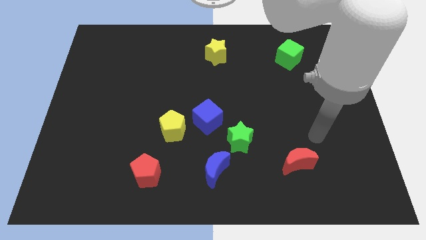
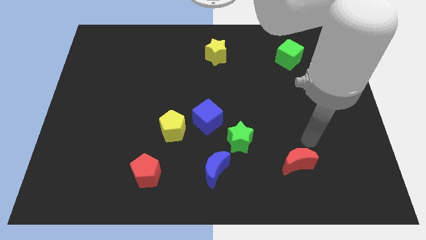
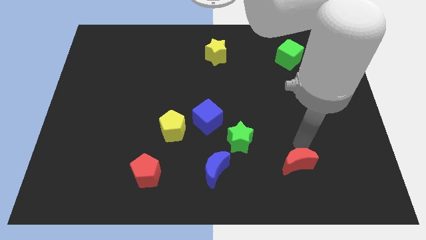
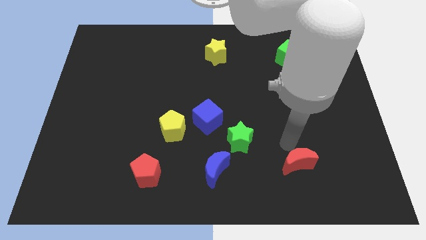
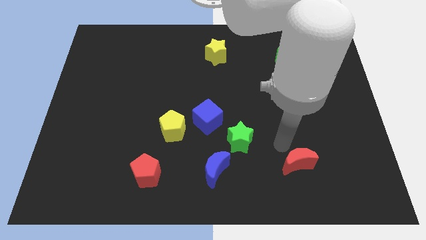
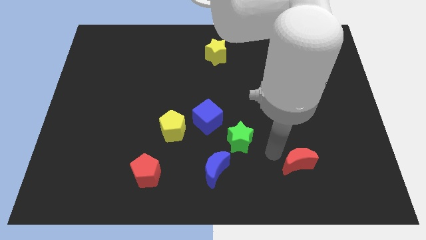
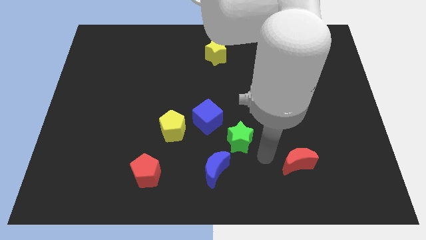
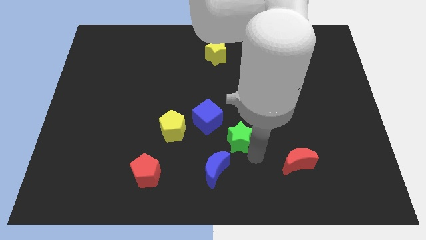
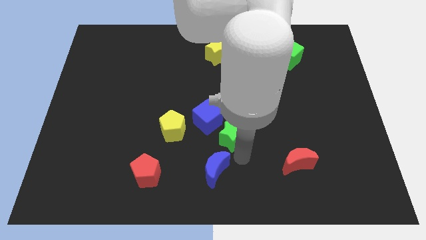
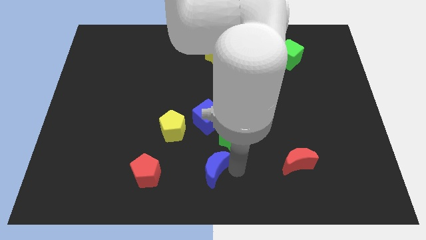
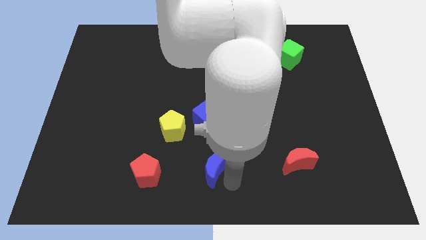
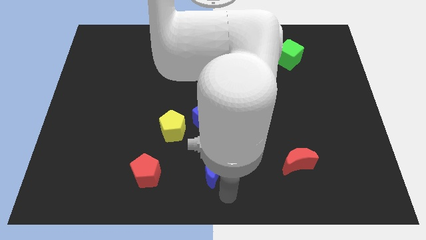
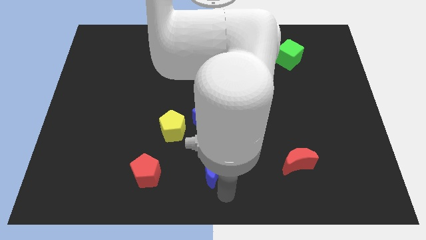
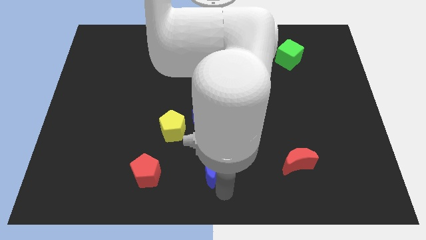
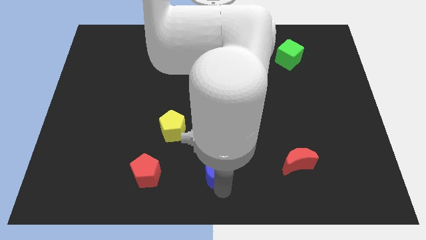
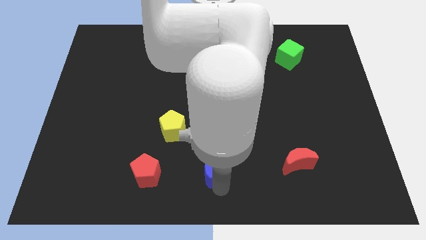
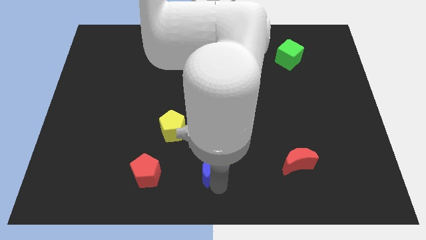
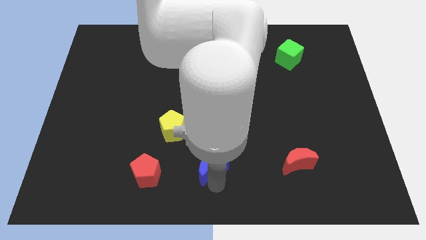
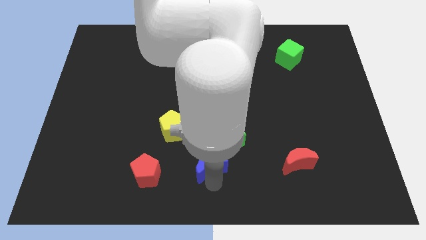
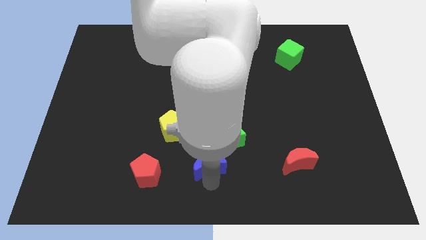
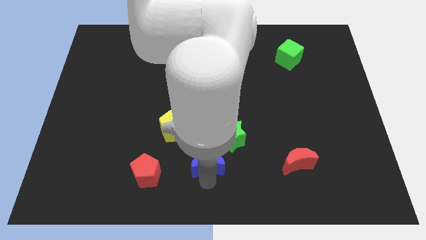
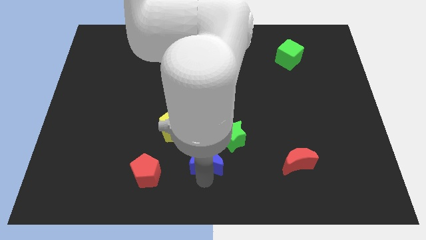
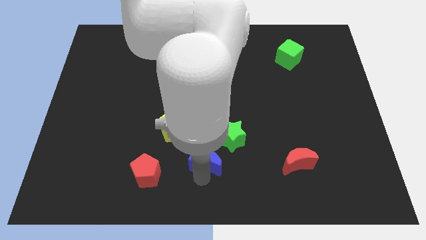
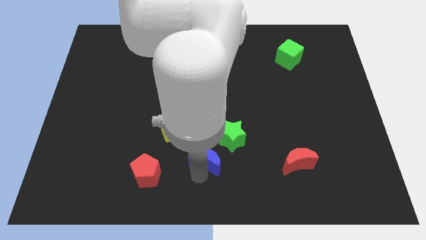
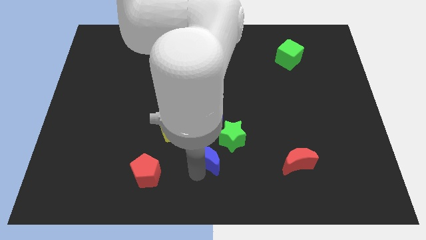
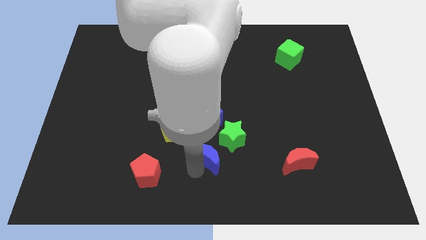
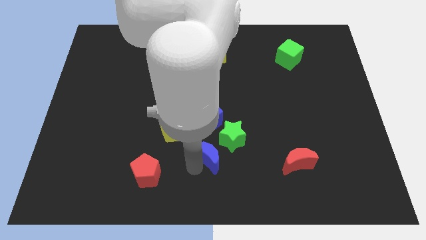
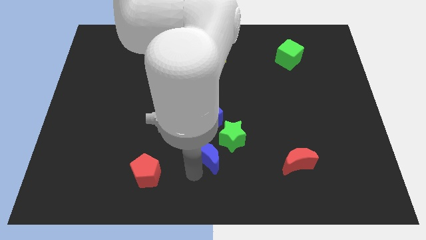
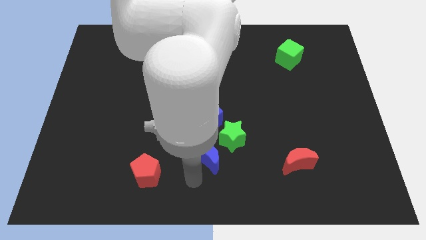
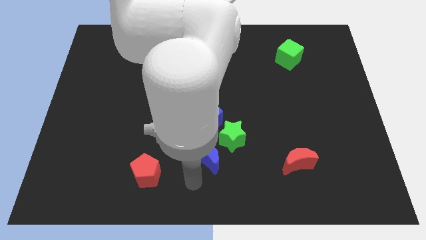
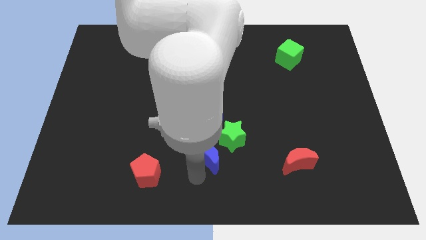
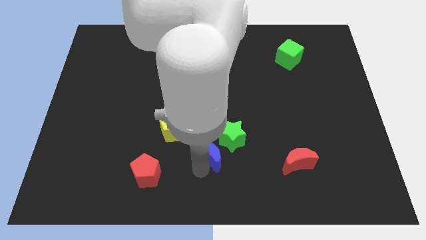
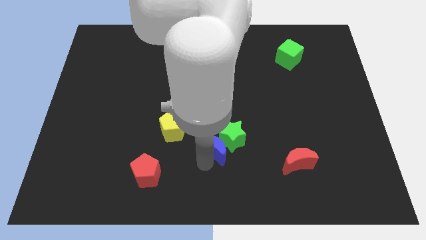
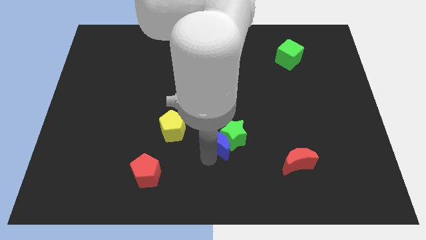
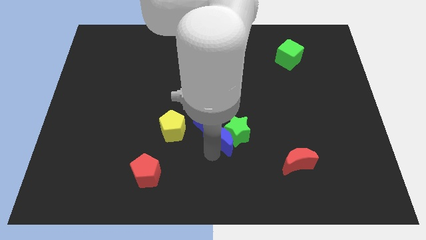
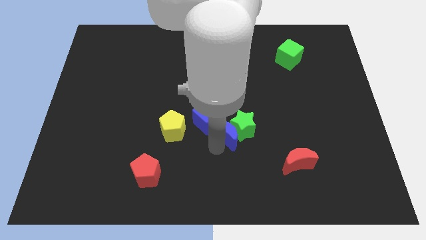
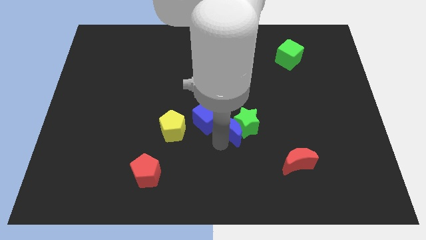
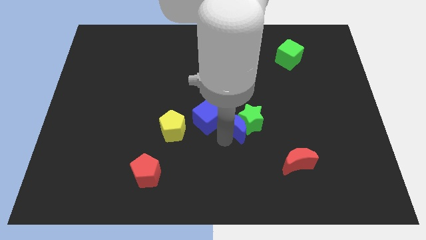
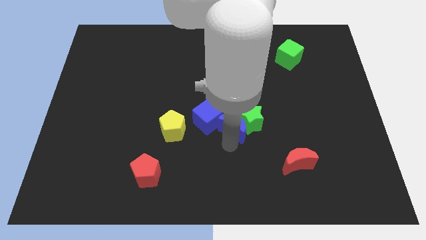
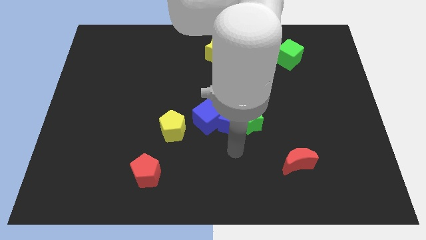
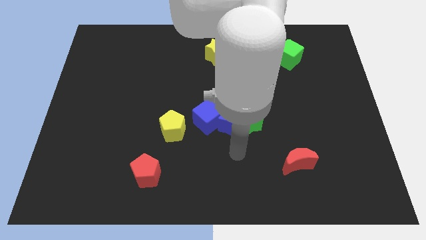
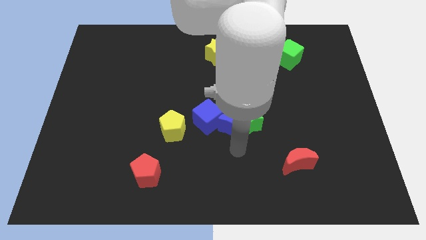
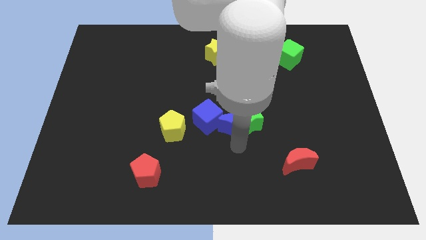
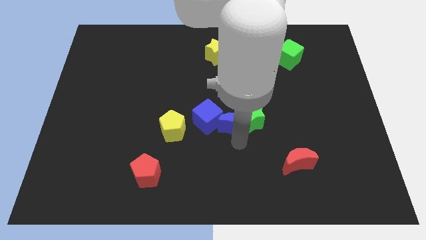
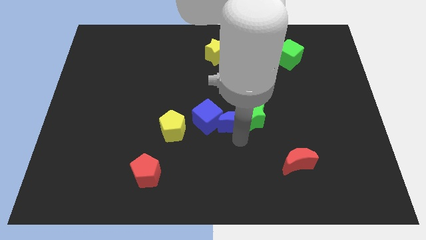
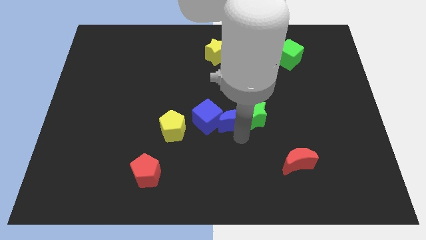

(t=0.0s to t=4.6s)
slide the blue moon diagonally up and to the right of the blue cube

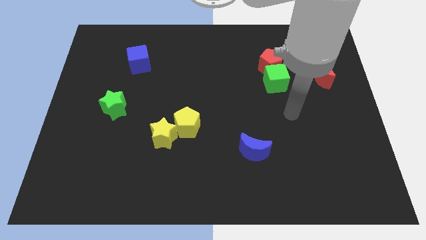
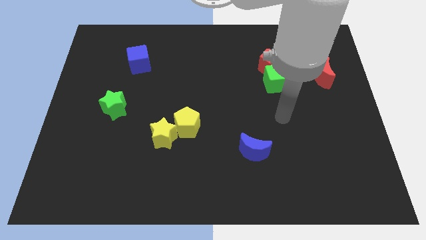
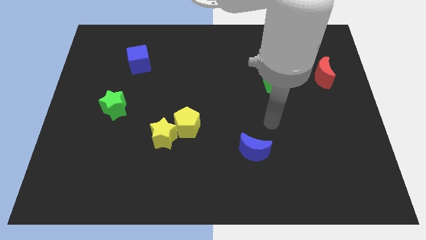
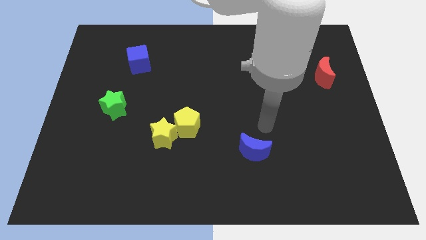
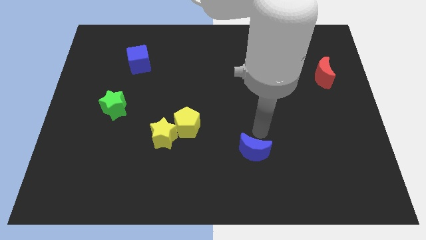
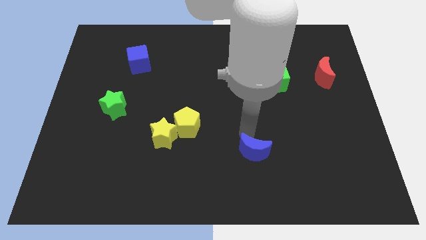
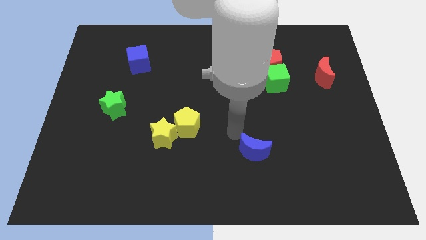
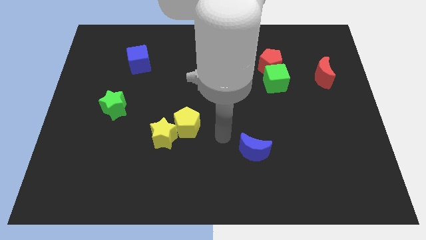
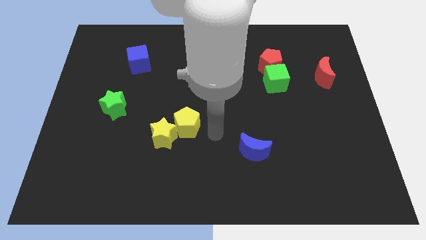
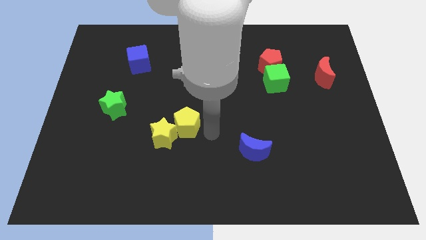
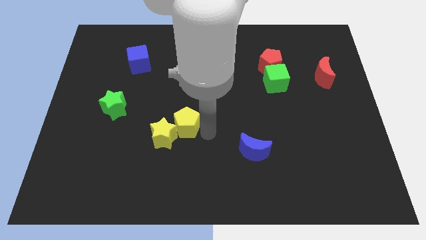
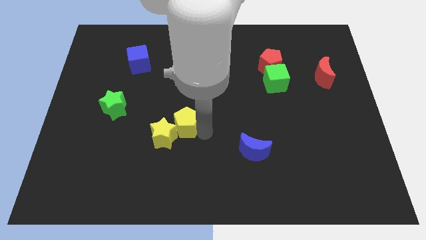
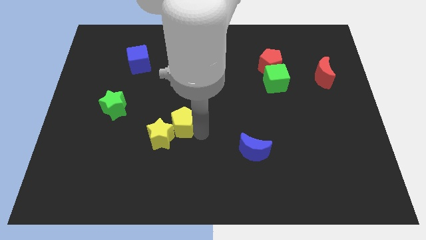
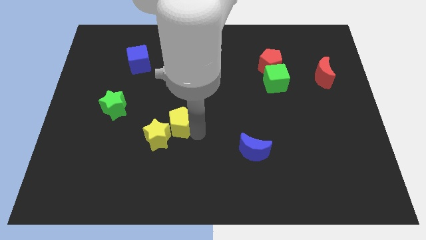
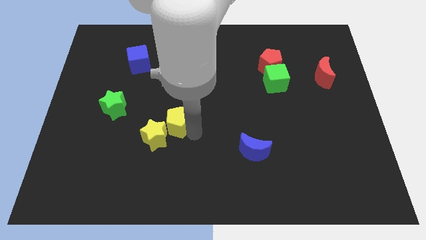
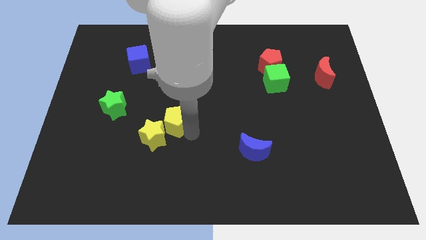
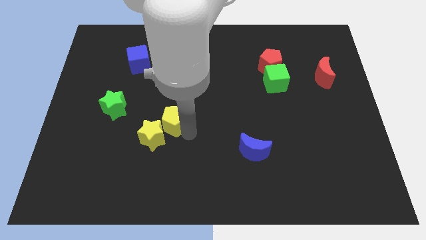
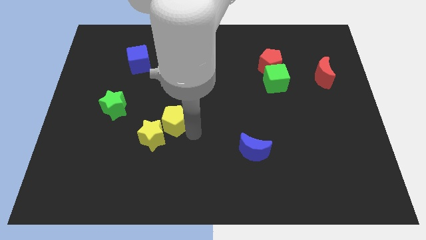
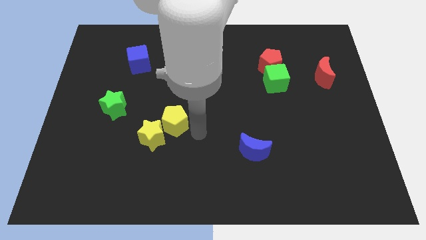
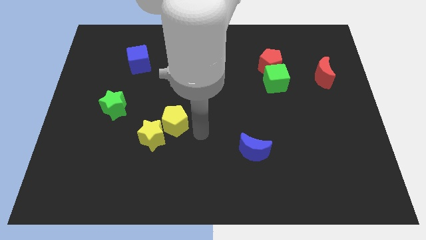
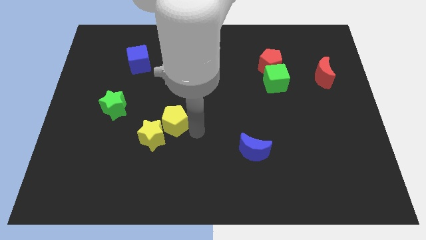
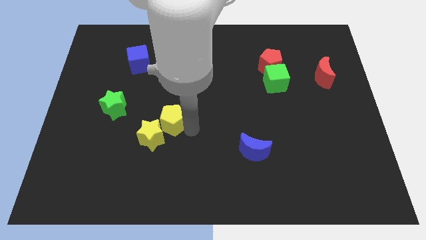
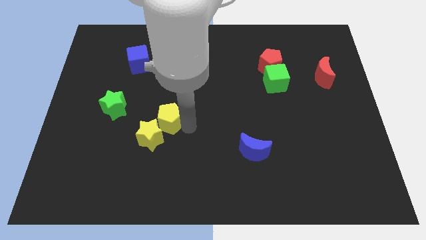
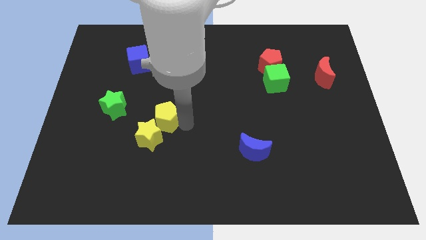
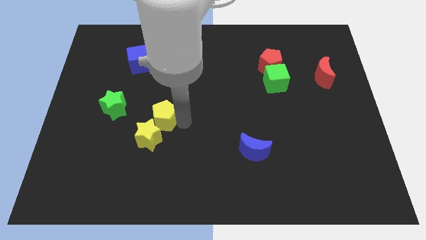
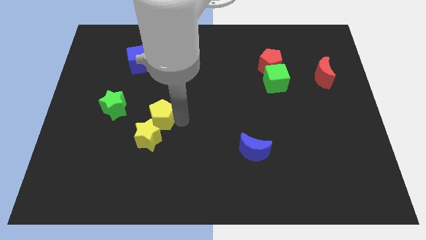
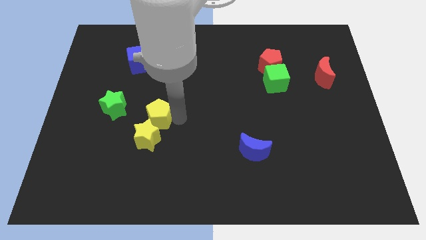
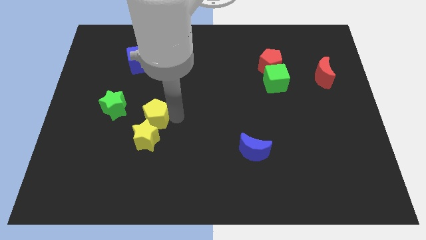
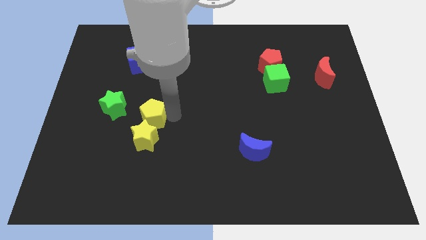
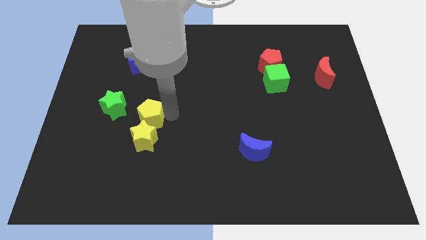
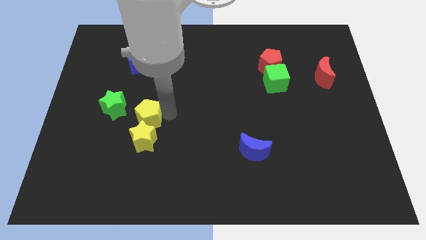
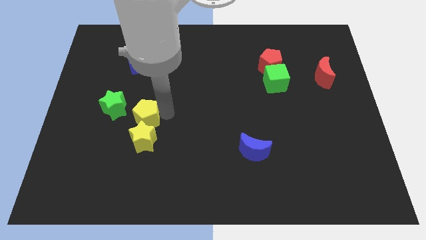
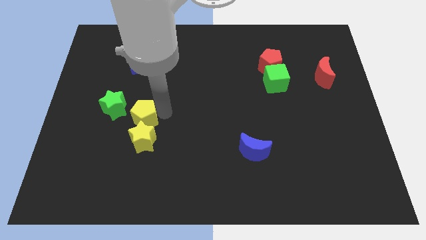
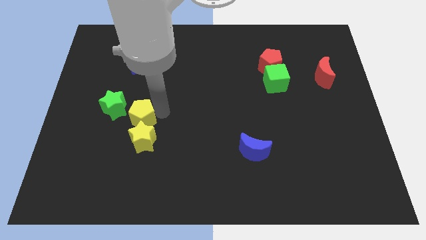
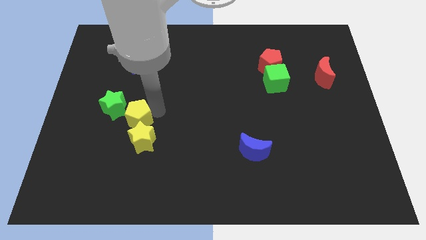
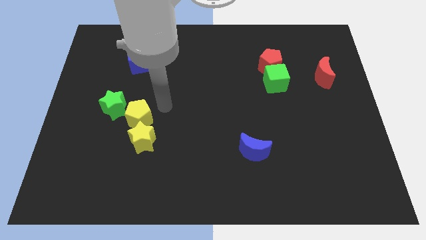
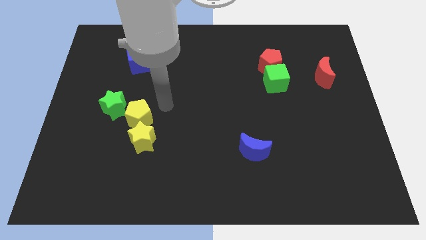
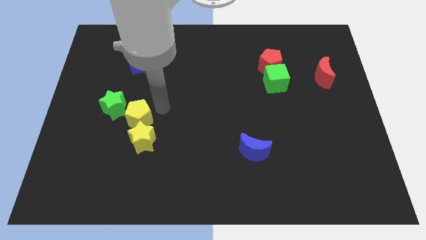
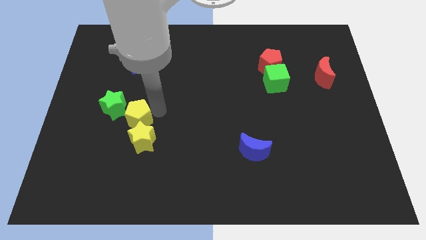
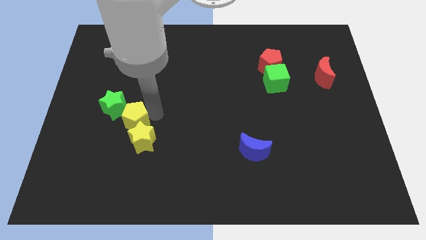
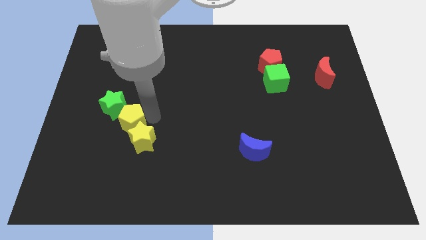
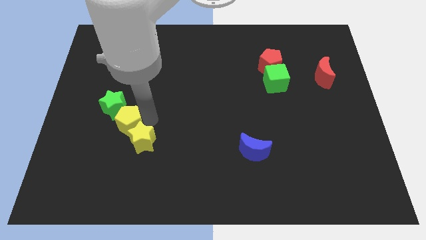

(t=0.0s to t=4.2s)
push the yellow pentagon left of the yellow star
